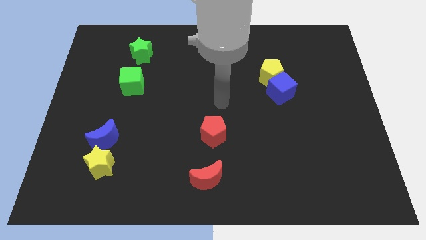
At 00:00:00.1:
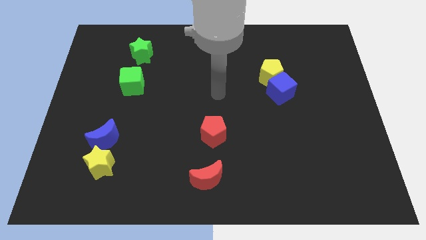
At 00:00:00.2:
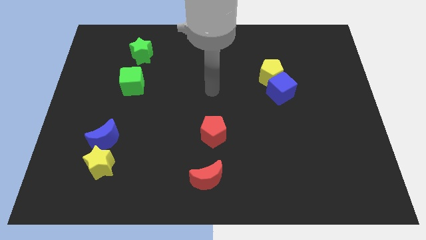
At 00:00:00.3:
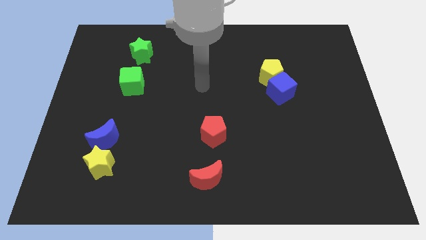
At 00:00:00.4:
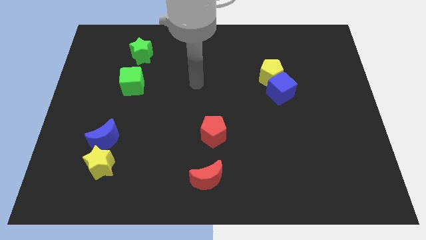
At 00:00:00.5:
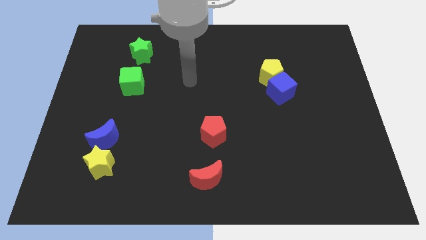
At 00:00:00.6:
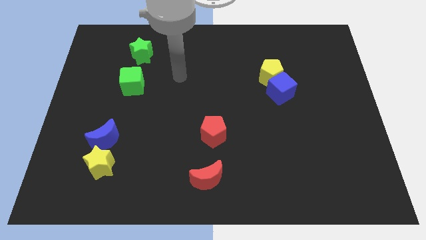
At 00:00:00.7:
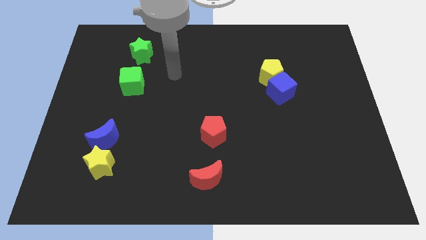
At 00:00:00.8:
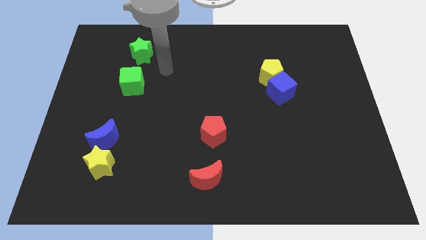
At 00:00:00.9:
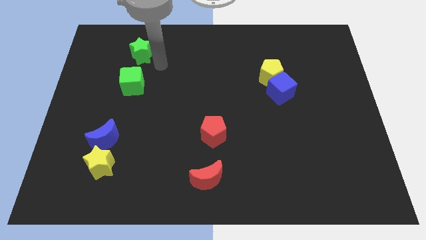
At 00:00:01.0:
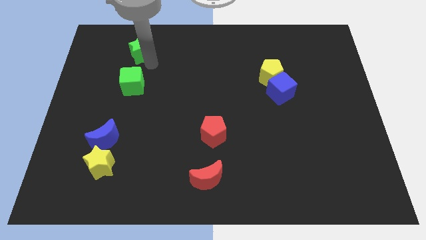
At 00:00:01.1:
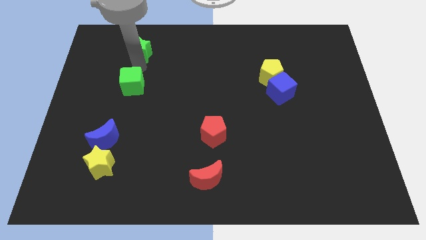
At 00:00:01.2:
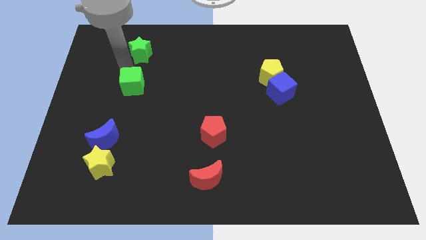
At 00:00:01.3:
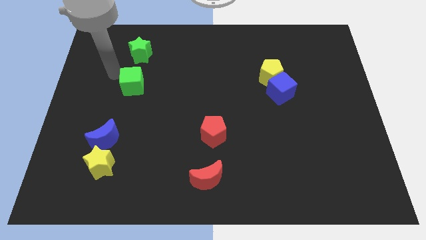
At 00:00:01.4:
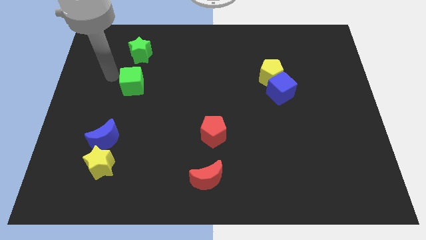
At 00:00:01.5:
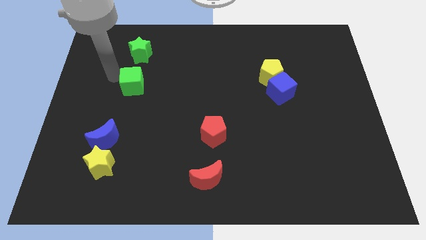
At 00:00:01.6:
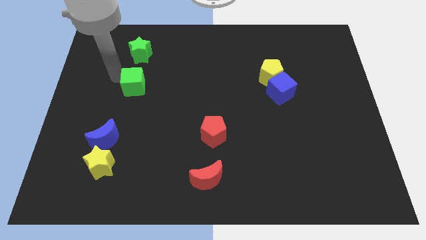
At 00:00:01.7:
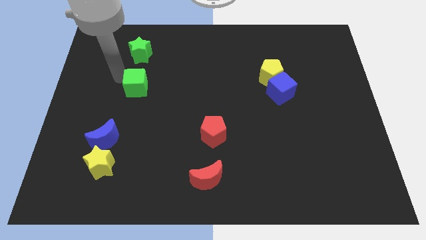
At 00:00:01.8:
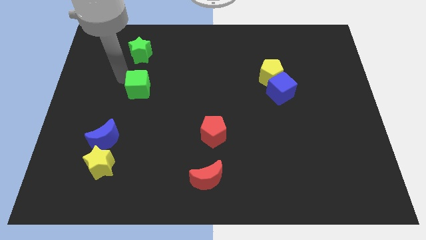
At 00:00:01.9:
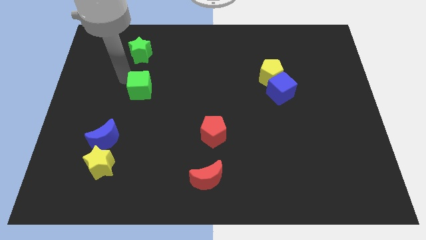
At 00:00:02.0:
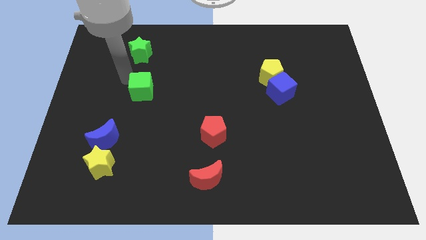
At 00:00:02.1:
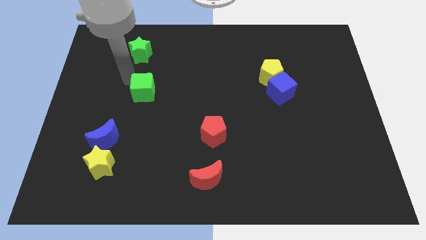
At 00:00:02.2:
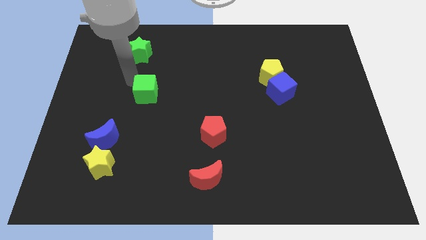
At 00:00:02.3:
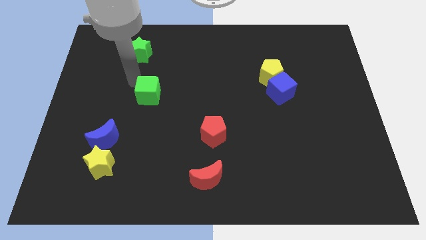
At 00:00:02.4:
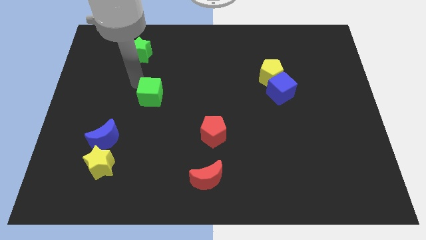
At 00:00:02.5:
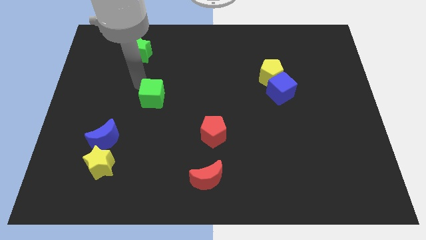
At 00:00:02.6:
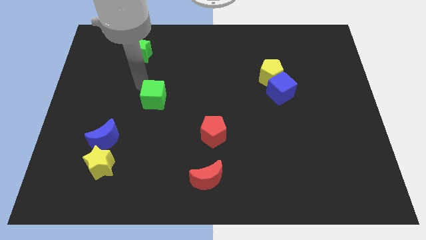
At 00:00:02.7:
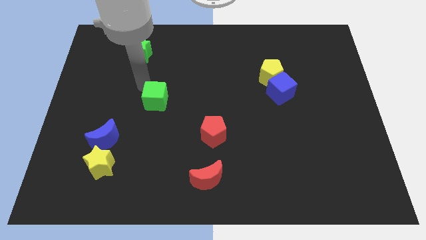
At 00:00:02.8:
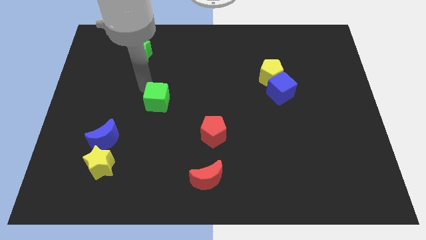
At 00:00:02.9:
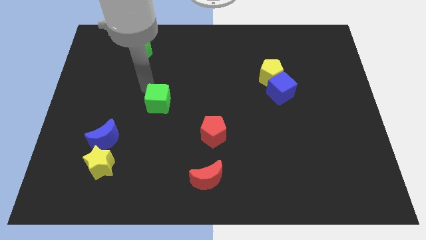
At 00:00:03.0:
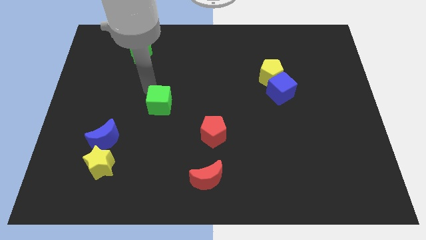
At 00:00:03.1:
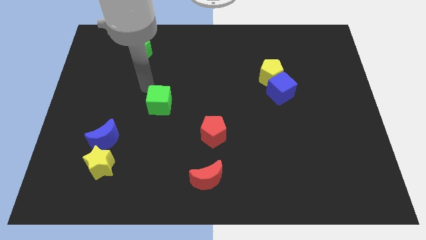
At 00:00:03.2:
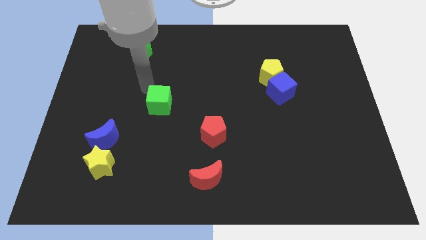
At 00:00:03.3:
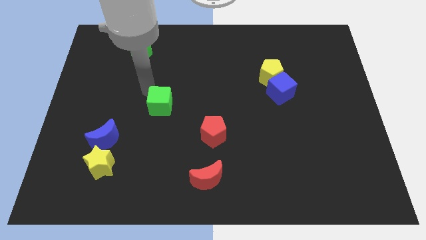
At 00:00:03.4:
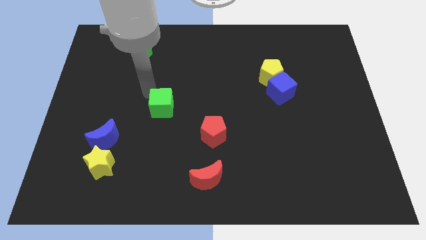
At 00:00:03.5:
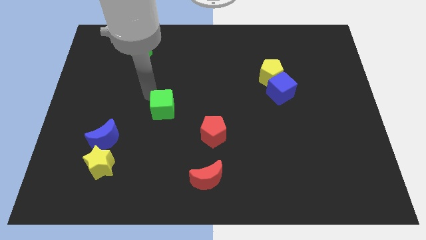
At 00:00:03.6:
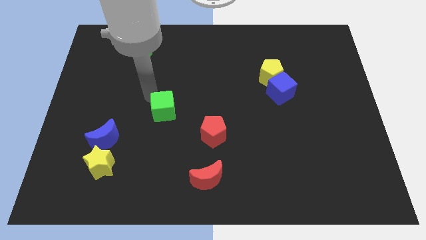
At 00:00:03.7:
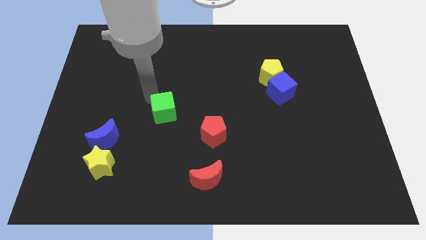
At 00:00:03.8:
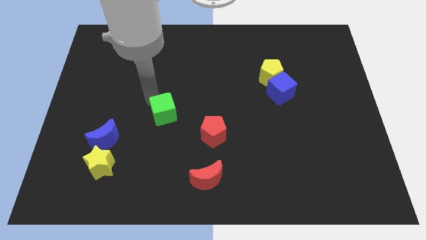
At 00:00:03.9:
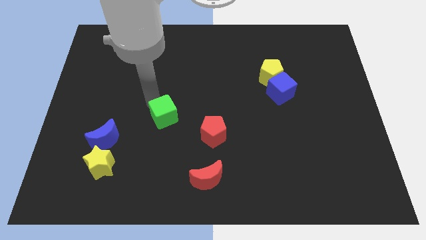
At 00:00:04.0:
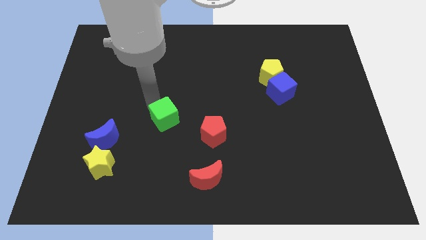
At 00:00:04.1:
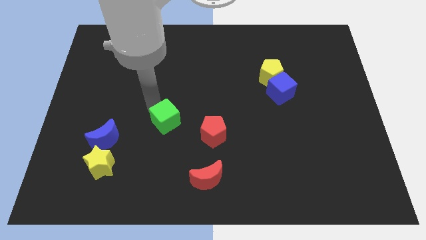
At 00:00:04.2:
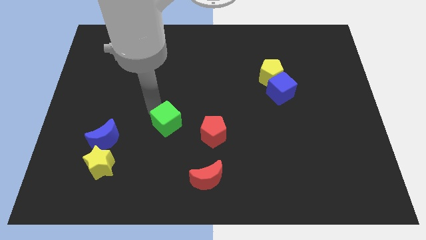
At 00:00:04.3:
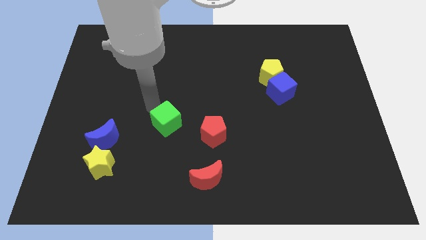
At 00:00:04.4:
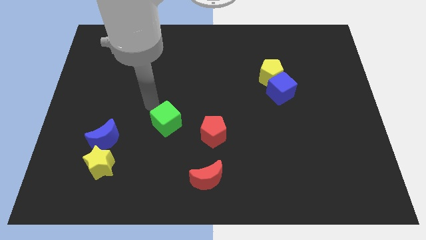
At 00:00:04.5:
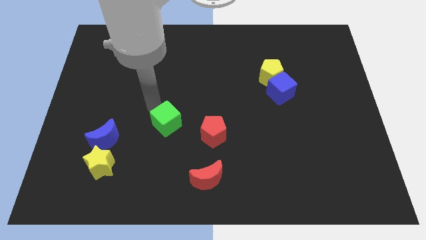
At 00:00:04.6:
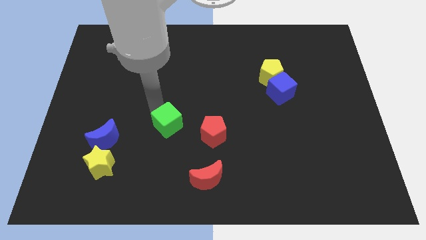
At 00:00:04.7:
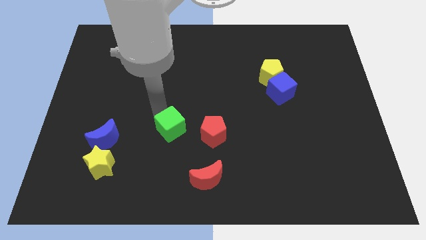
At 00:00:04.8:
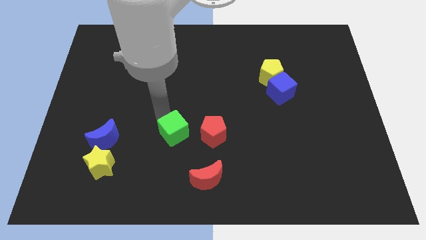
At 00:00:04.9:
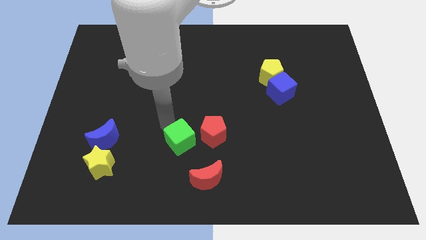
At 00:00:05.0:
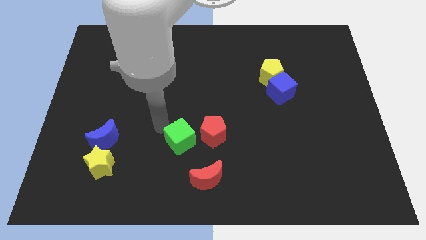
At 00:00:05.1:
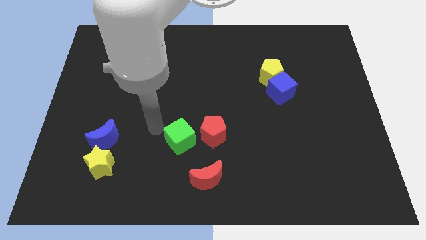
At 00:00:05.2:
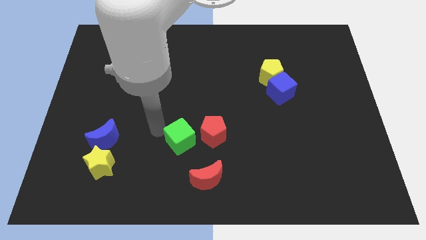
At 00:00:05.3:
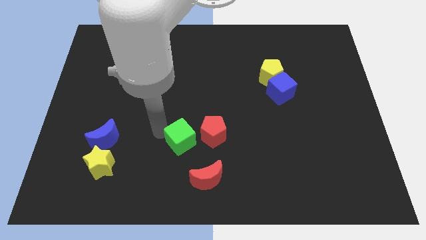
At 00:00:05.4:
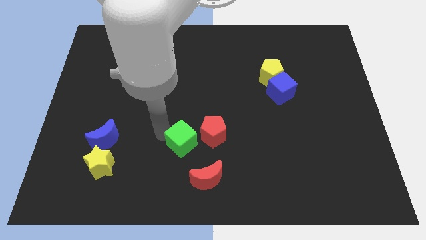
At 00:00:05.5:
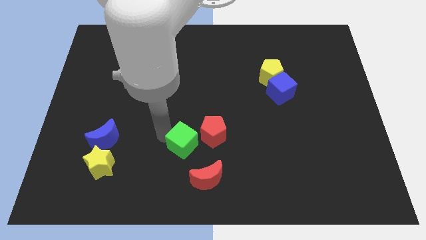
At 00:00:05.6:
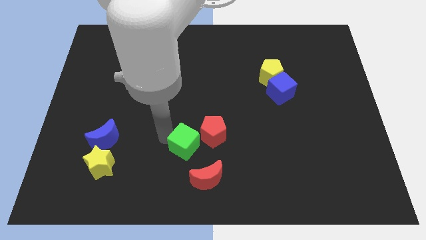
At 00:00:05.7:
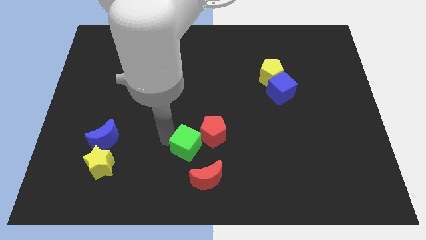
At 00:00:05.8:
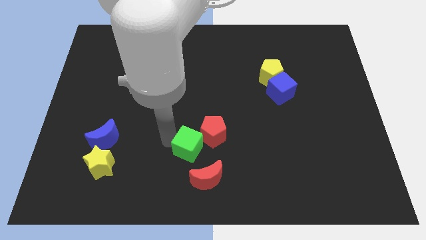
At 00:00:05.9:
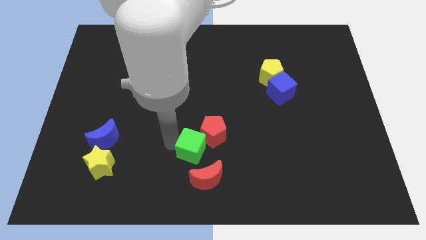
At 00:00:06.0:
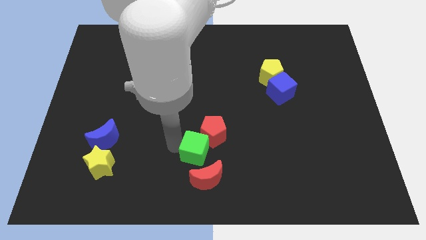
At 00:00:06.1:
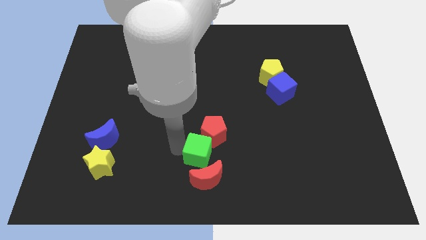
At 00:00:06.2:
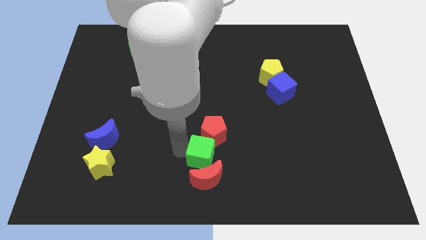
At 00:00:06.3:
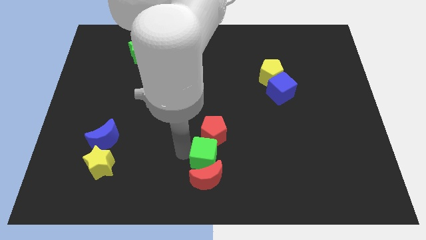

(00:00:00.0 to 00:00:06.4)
slide the green cube to the top right of the red moon
